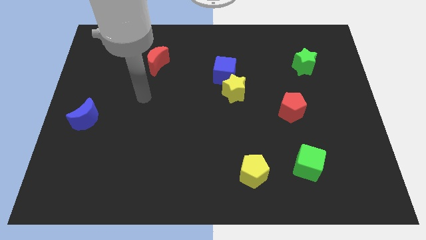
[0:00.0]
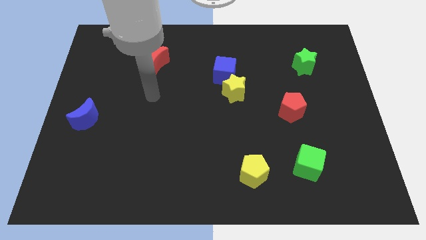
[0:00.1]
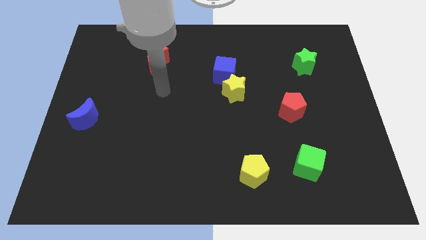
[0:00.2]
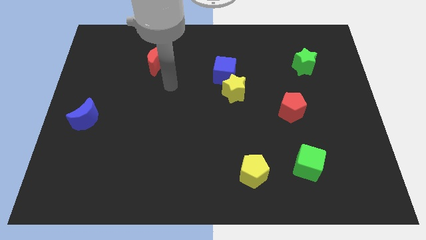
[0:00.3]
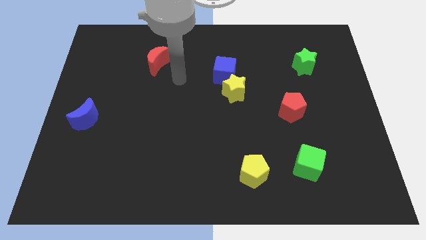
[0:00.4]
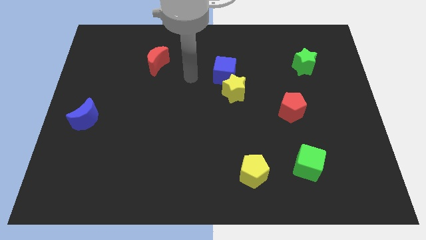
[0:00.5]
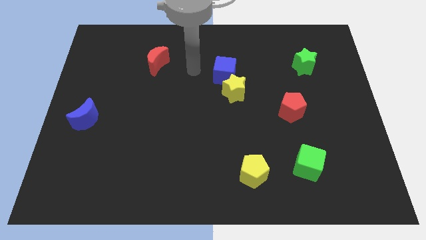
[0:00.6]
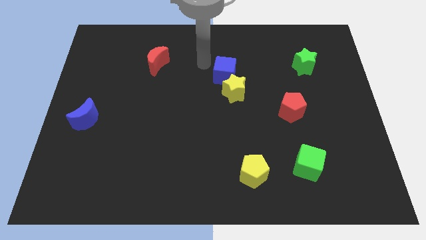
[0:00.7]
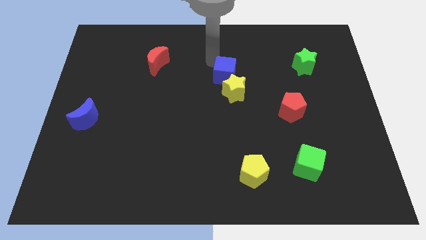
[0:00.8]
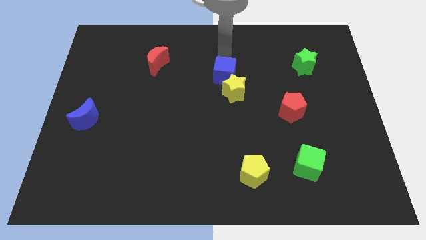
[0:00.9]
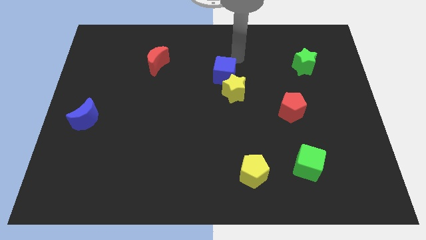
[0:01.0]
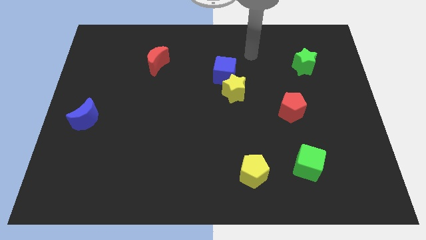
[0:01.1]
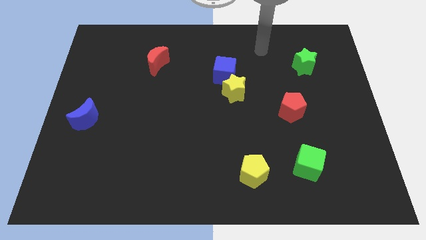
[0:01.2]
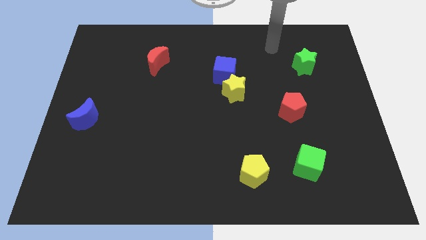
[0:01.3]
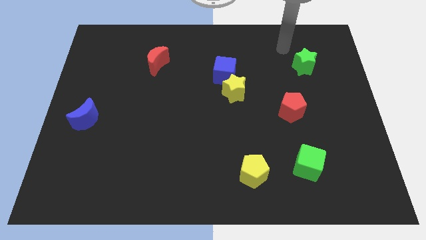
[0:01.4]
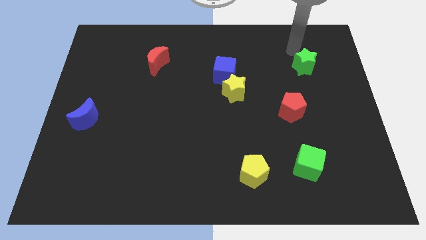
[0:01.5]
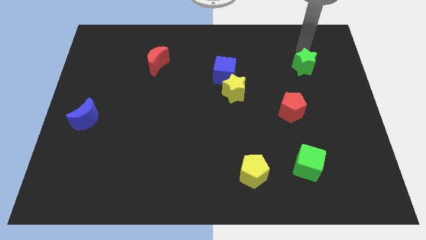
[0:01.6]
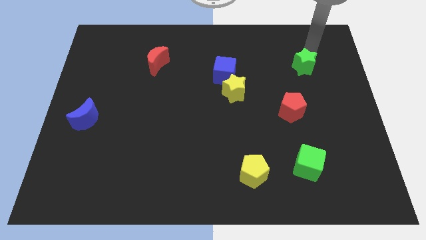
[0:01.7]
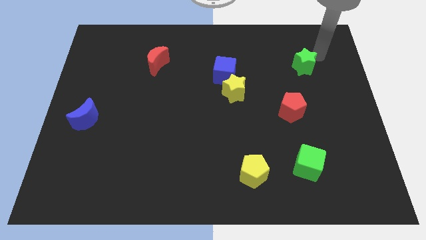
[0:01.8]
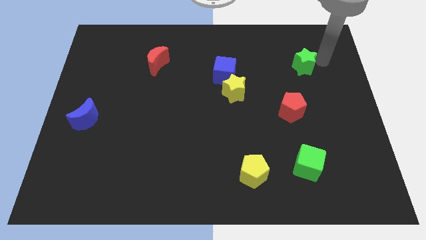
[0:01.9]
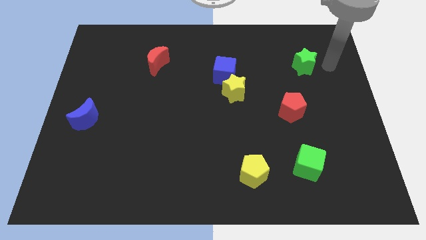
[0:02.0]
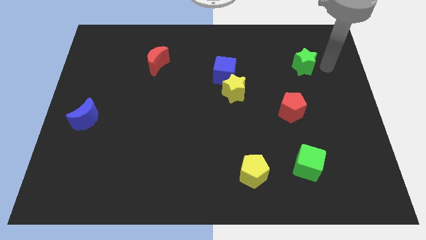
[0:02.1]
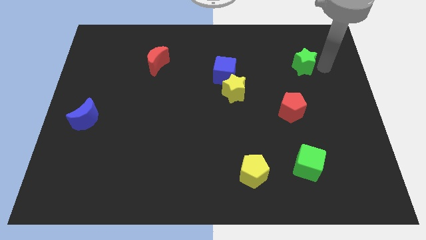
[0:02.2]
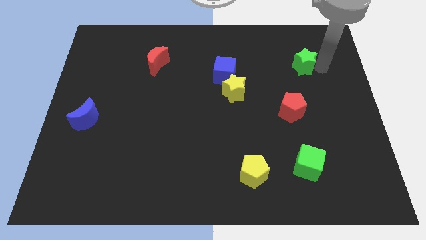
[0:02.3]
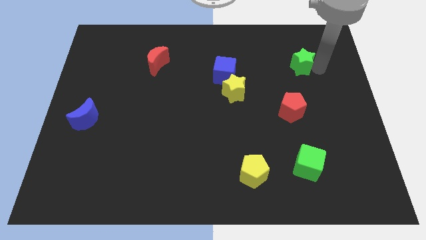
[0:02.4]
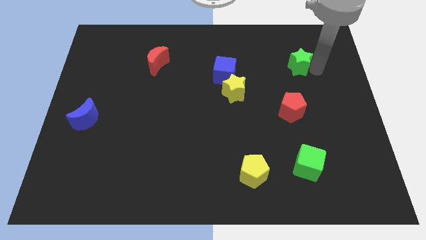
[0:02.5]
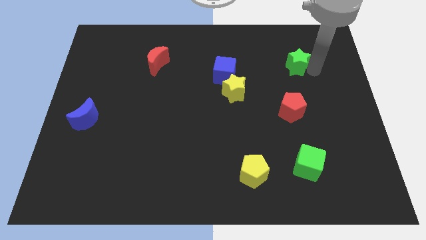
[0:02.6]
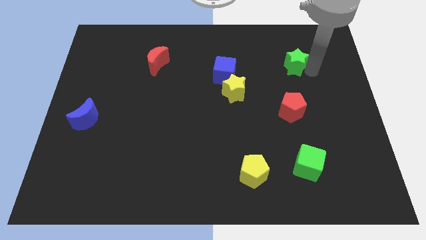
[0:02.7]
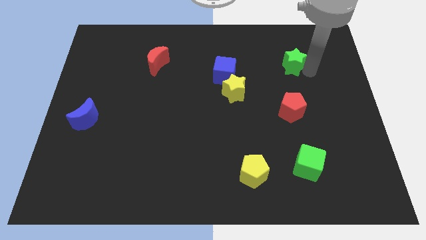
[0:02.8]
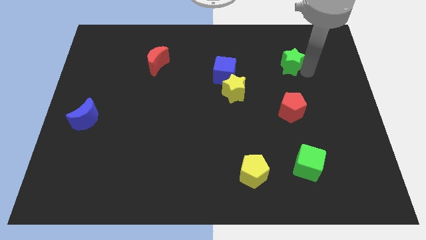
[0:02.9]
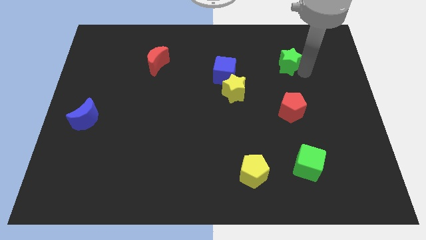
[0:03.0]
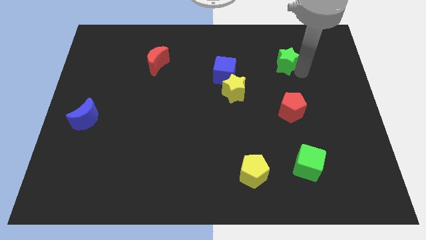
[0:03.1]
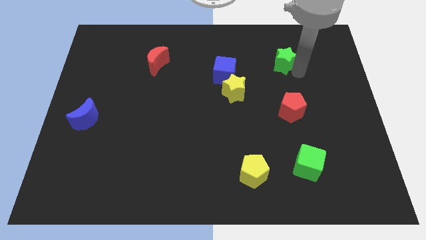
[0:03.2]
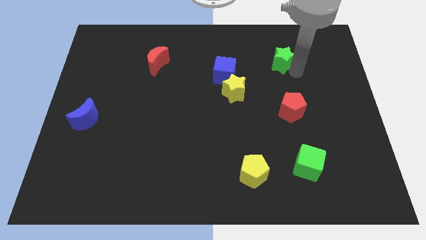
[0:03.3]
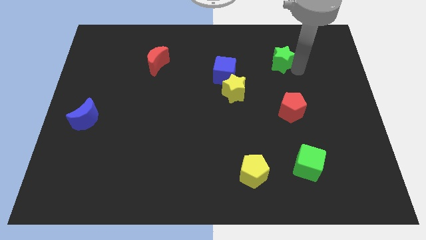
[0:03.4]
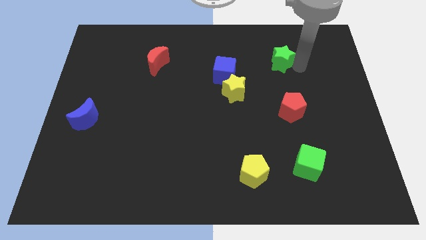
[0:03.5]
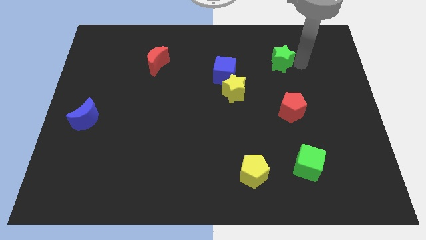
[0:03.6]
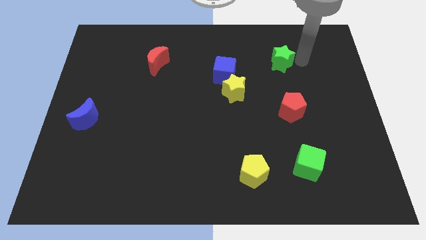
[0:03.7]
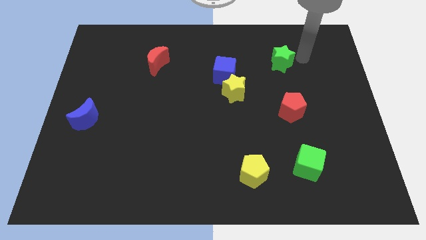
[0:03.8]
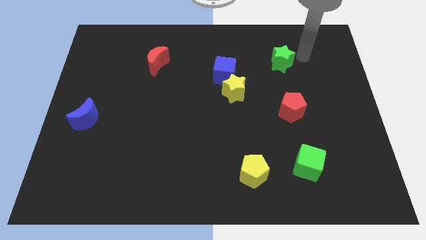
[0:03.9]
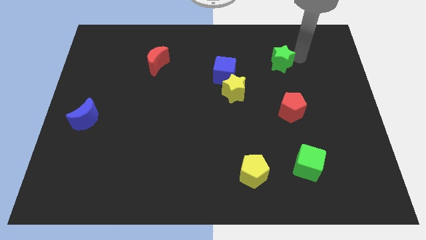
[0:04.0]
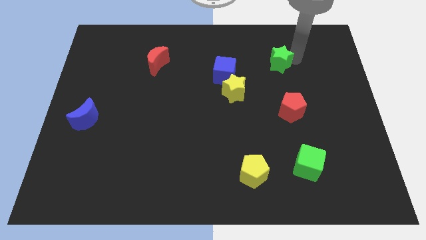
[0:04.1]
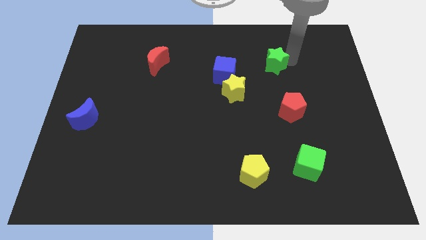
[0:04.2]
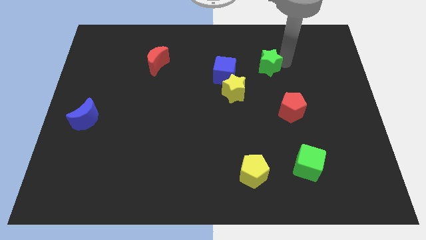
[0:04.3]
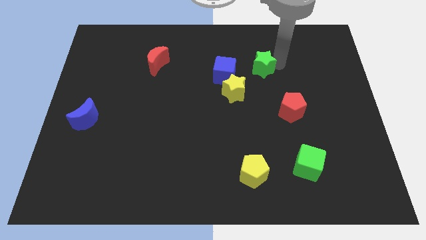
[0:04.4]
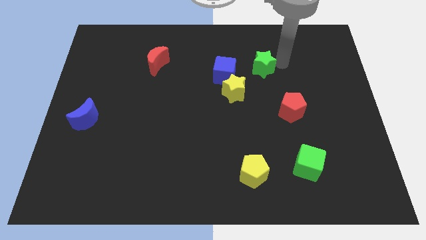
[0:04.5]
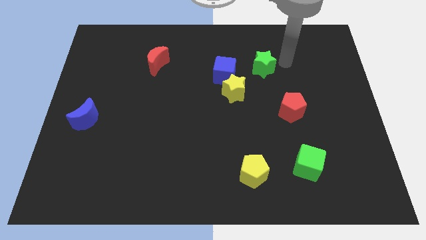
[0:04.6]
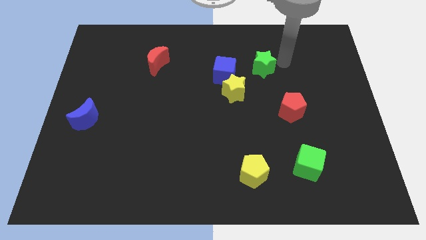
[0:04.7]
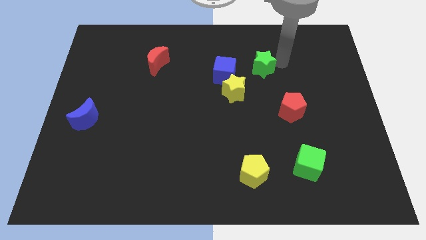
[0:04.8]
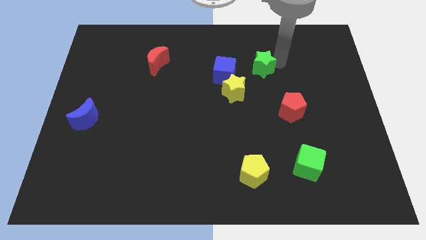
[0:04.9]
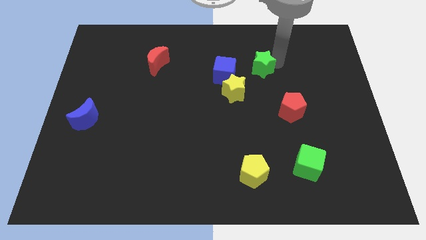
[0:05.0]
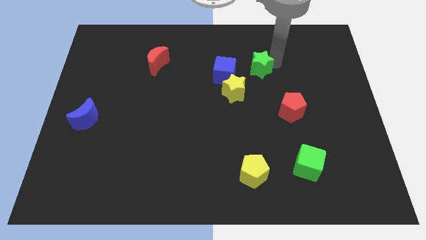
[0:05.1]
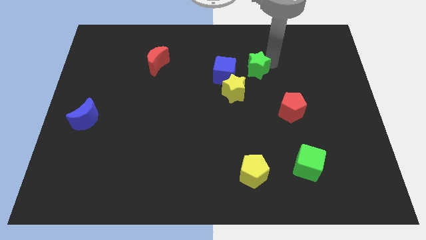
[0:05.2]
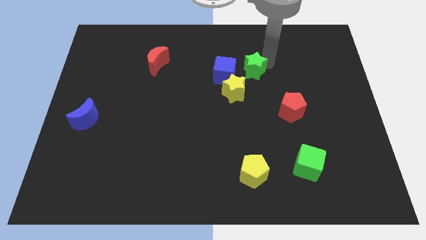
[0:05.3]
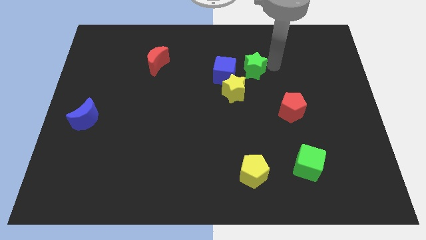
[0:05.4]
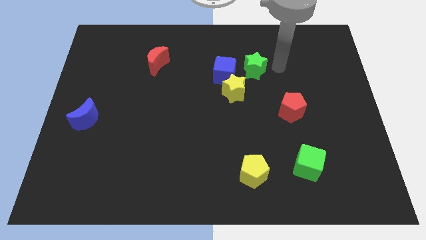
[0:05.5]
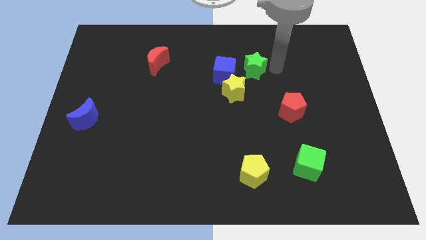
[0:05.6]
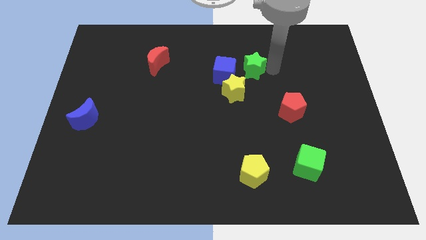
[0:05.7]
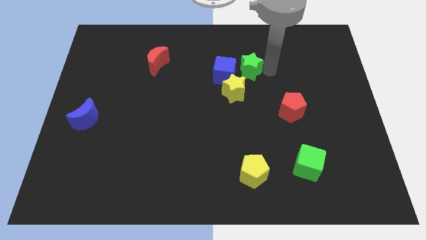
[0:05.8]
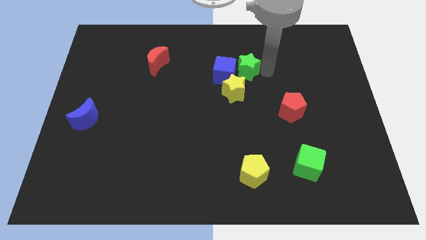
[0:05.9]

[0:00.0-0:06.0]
push the green star to the blue cube

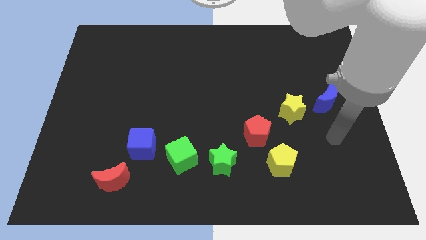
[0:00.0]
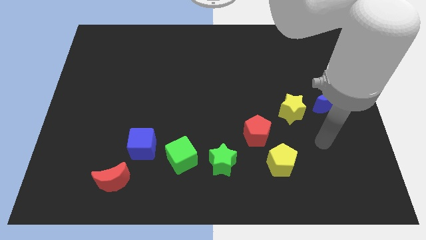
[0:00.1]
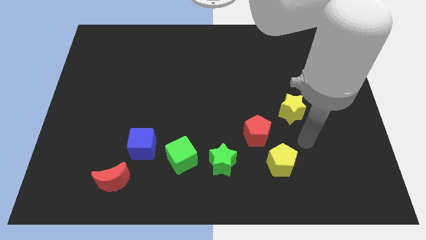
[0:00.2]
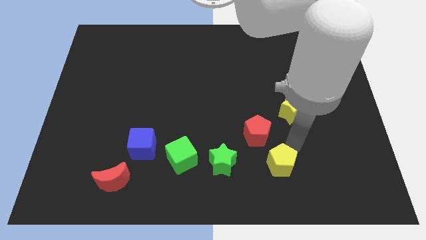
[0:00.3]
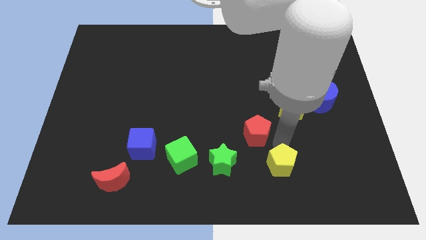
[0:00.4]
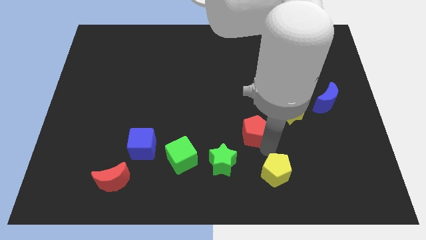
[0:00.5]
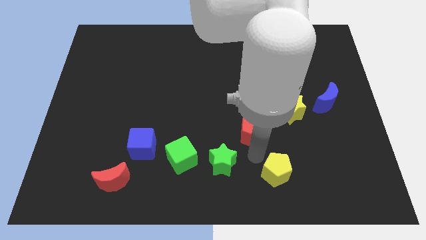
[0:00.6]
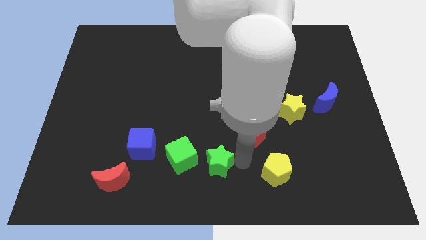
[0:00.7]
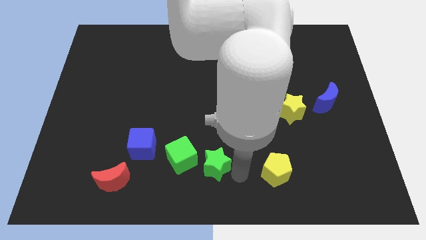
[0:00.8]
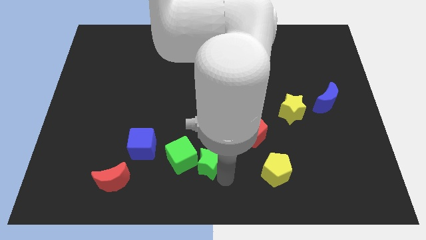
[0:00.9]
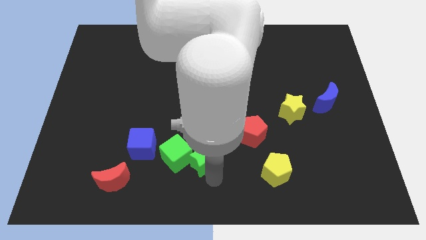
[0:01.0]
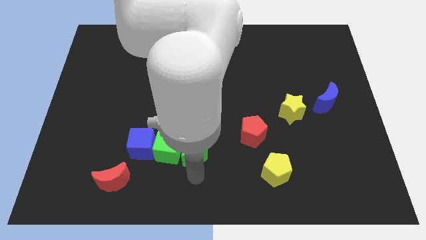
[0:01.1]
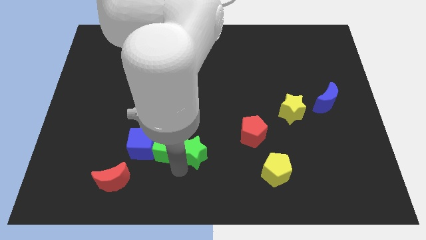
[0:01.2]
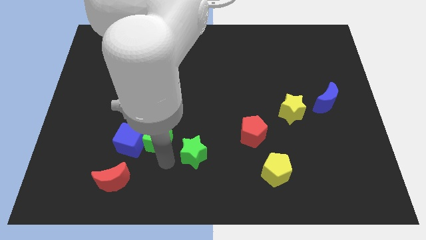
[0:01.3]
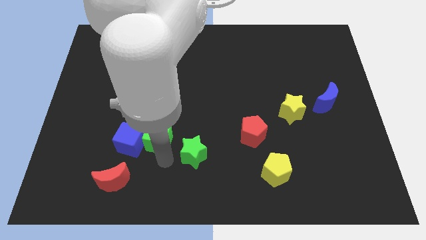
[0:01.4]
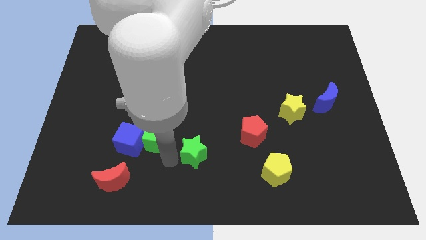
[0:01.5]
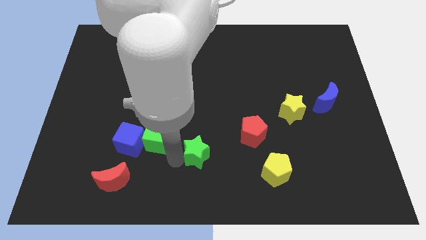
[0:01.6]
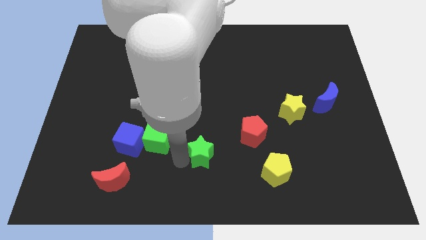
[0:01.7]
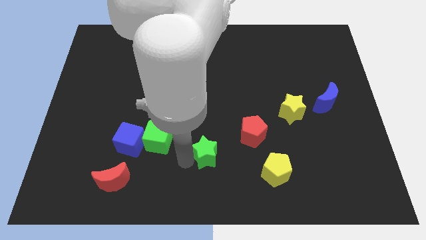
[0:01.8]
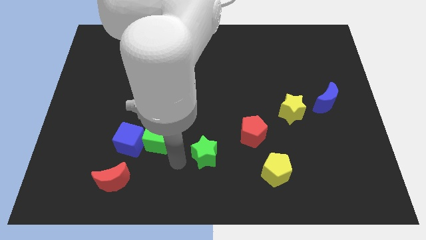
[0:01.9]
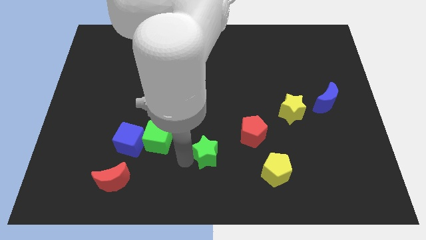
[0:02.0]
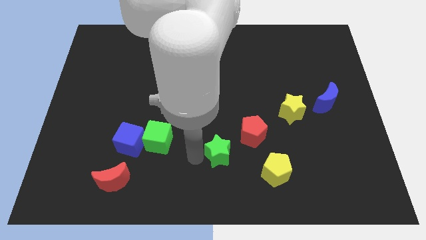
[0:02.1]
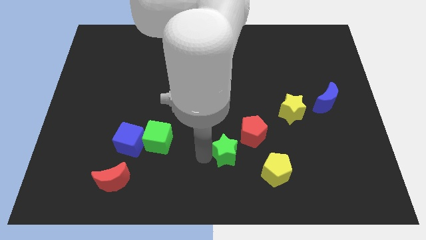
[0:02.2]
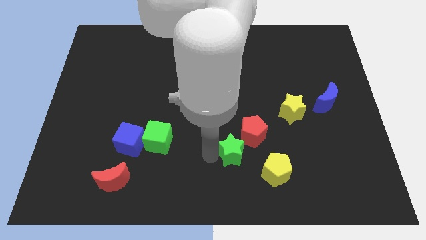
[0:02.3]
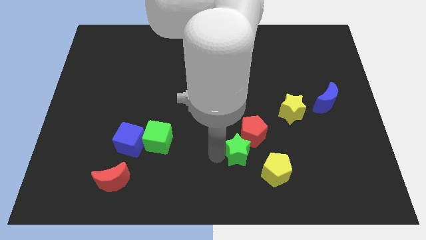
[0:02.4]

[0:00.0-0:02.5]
put the green star towards the red pentagon
